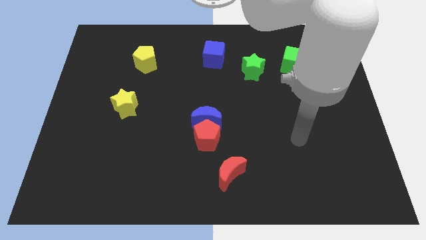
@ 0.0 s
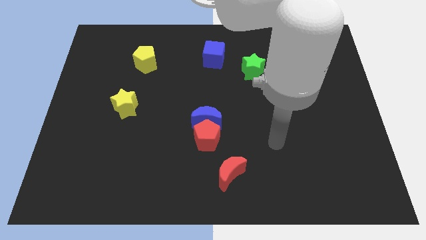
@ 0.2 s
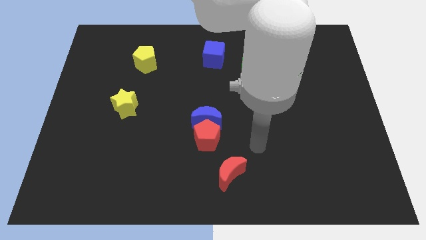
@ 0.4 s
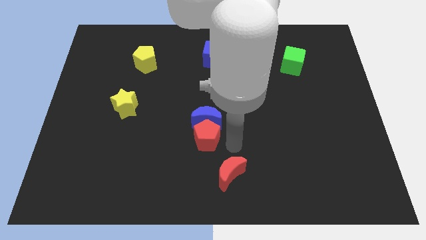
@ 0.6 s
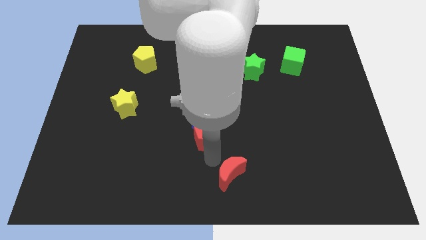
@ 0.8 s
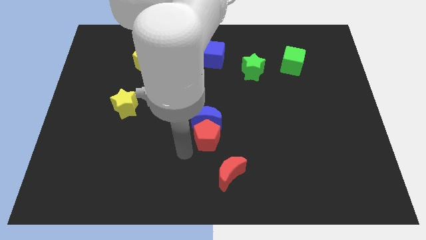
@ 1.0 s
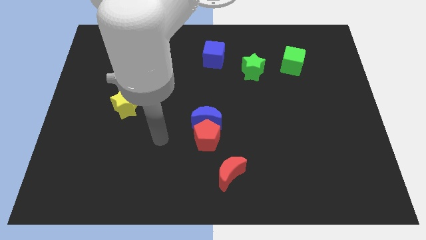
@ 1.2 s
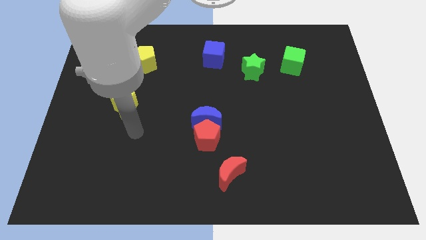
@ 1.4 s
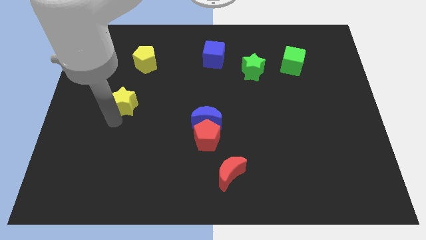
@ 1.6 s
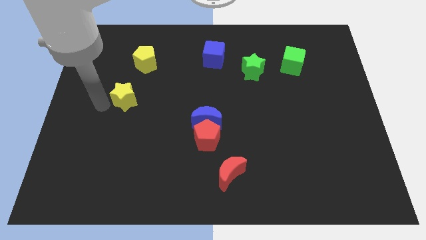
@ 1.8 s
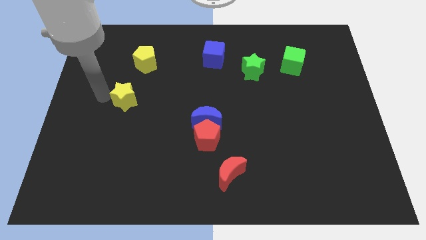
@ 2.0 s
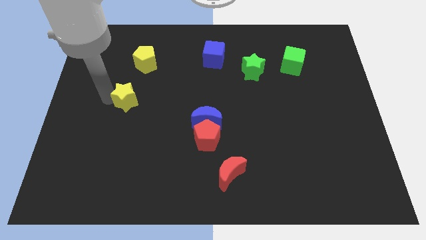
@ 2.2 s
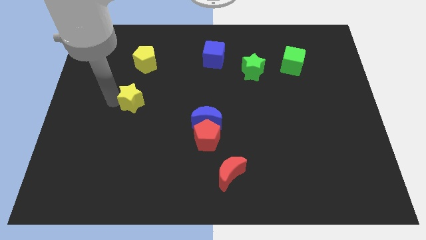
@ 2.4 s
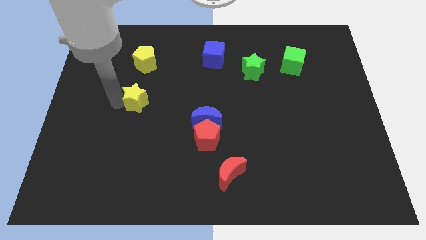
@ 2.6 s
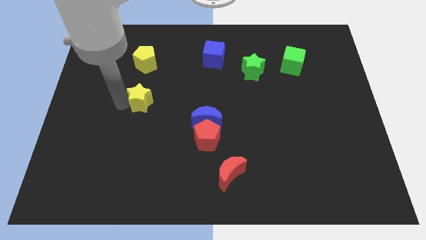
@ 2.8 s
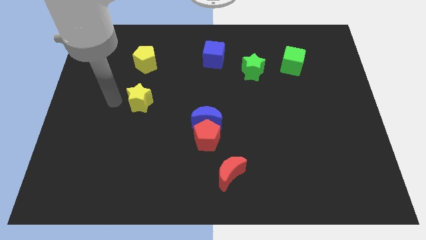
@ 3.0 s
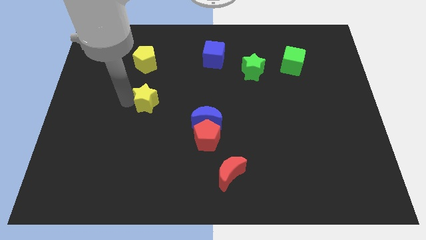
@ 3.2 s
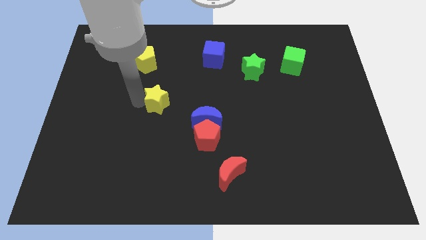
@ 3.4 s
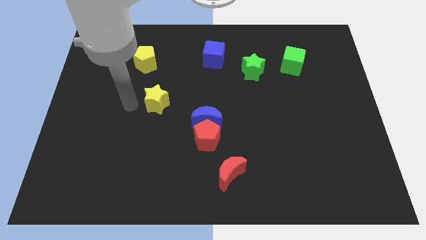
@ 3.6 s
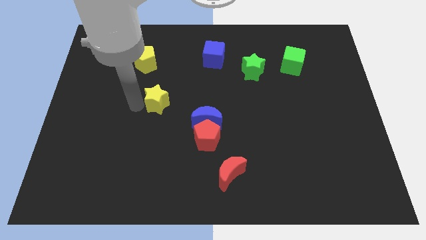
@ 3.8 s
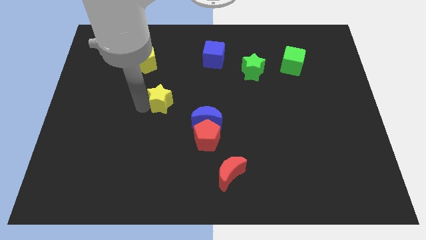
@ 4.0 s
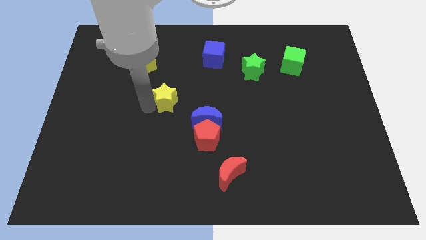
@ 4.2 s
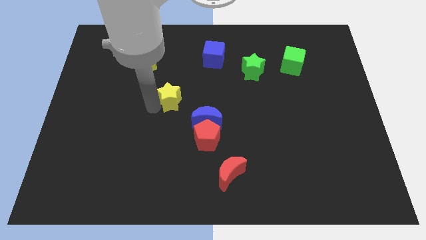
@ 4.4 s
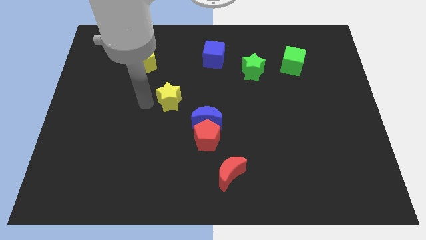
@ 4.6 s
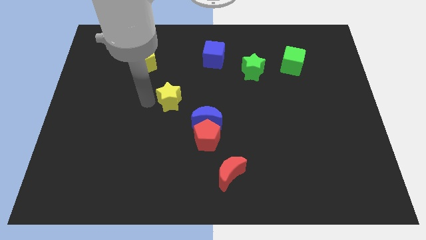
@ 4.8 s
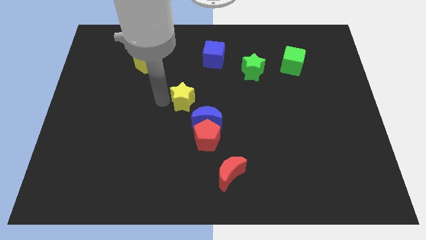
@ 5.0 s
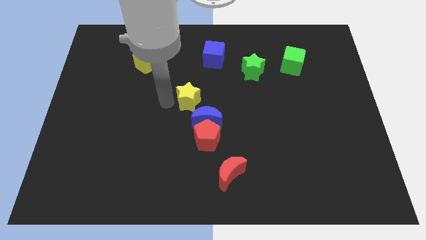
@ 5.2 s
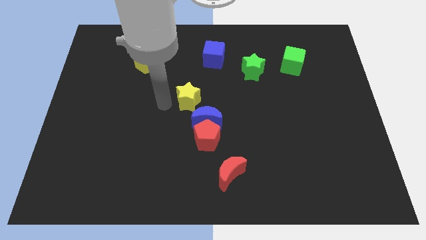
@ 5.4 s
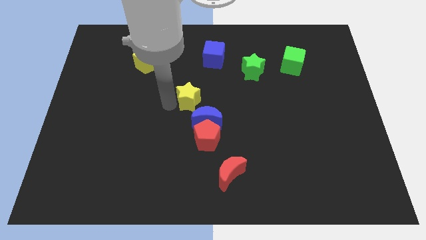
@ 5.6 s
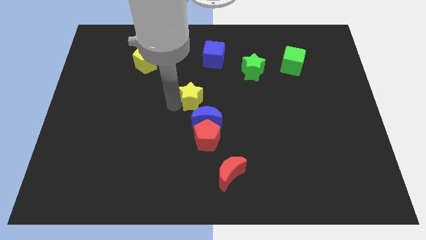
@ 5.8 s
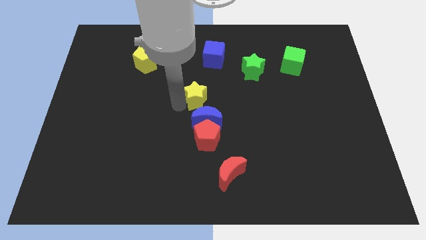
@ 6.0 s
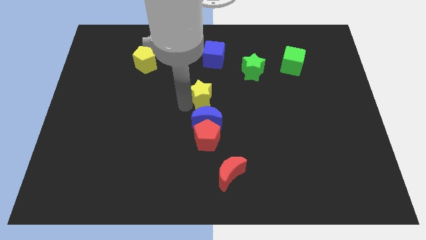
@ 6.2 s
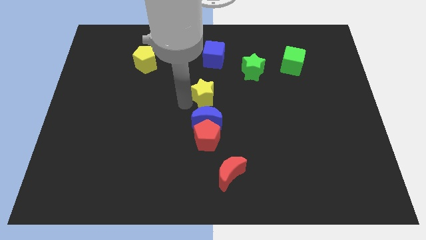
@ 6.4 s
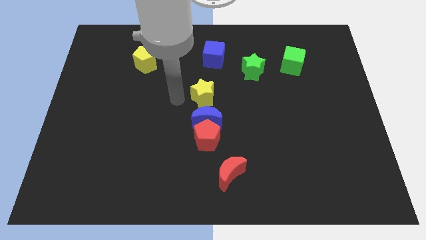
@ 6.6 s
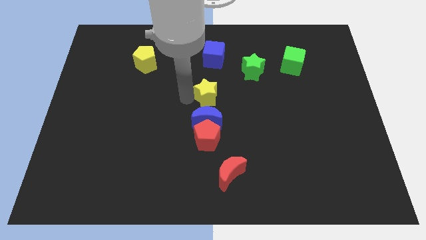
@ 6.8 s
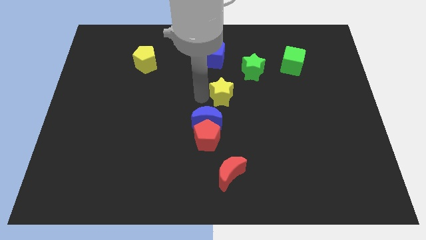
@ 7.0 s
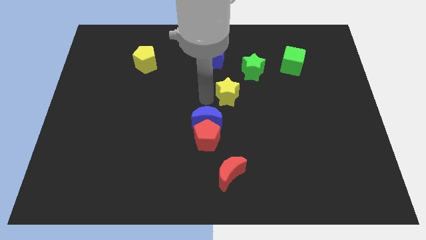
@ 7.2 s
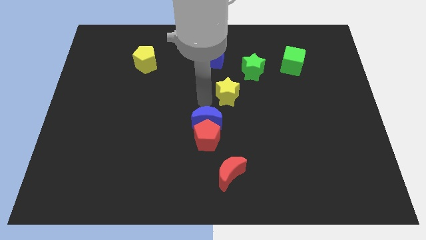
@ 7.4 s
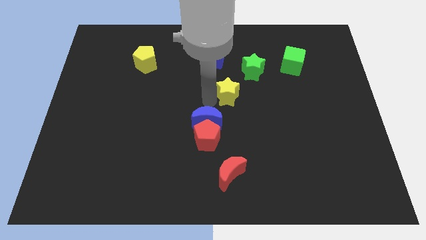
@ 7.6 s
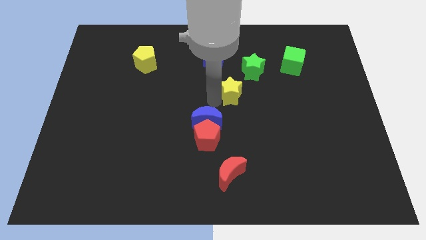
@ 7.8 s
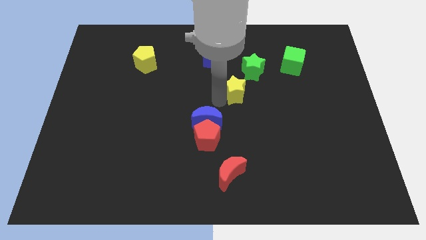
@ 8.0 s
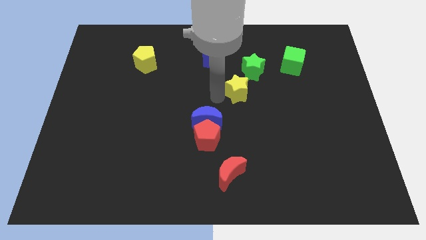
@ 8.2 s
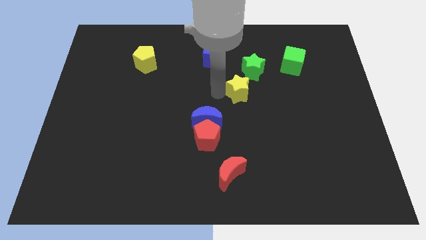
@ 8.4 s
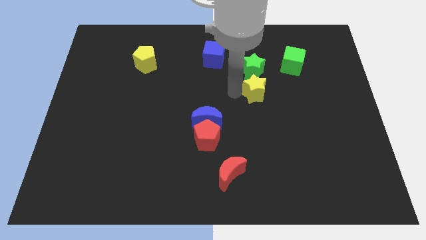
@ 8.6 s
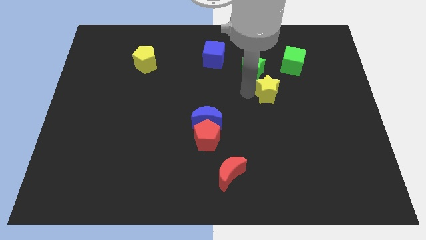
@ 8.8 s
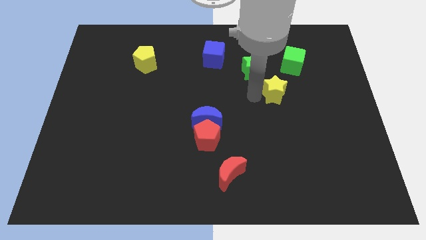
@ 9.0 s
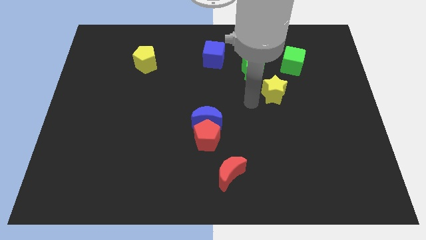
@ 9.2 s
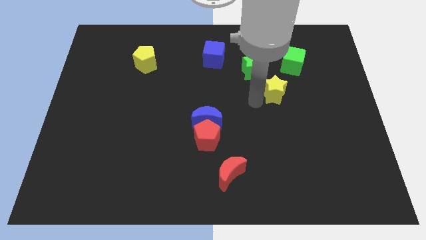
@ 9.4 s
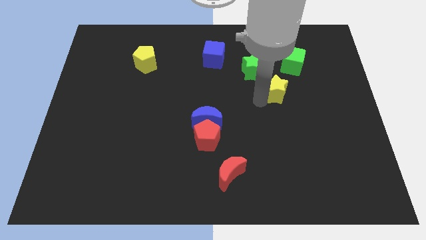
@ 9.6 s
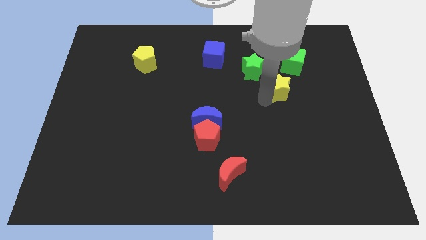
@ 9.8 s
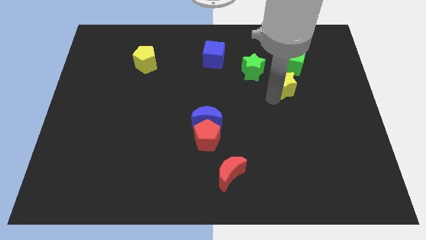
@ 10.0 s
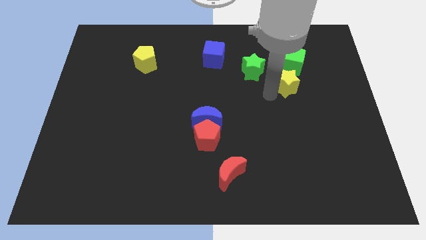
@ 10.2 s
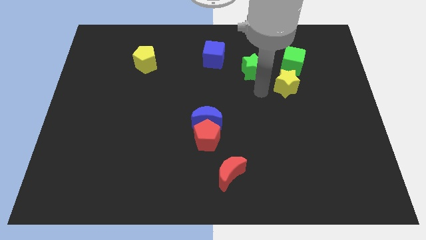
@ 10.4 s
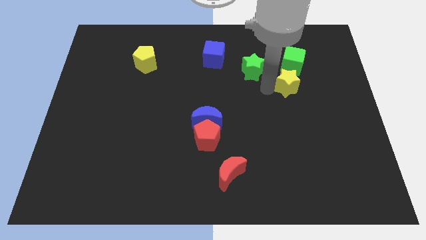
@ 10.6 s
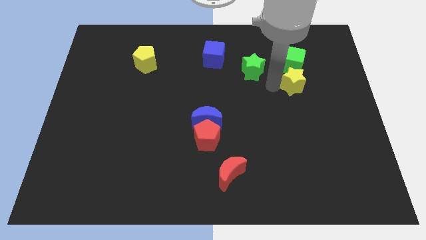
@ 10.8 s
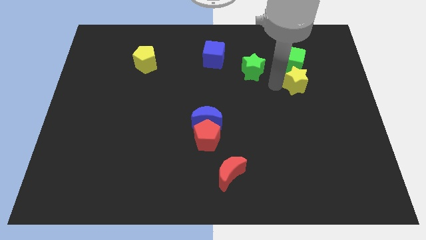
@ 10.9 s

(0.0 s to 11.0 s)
push the yellow star to the bottom right side of the green cube

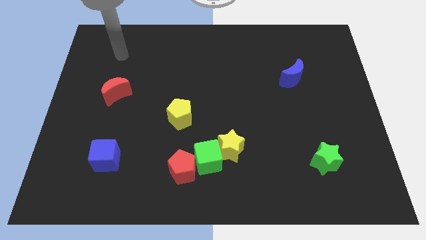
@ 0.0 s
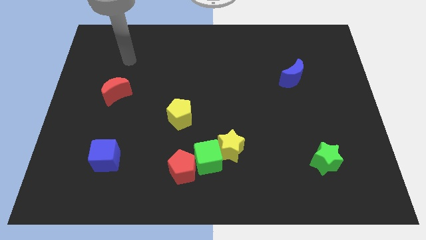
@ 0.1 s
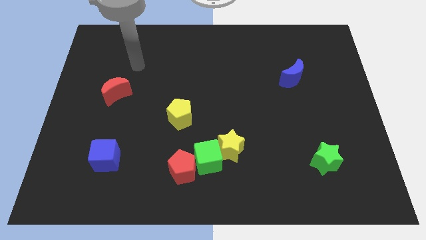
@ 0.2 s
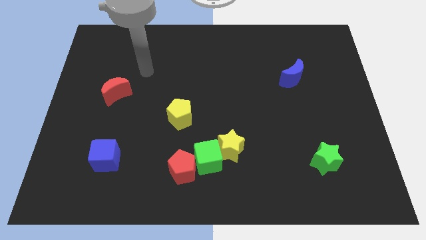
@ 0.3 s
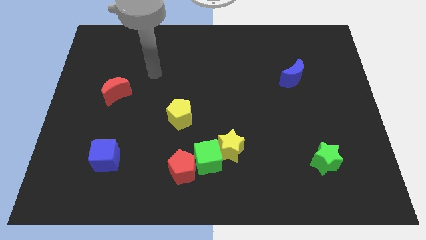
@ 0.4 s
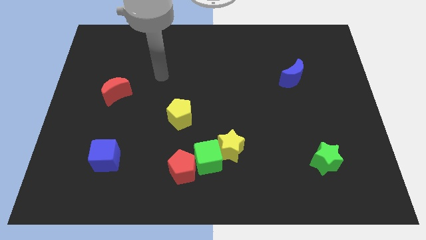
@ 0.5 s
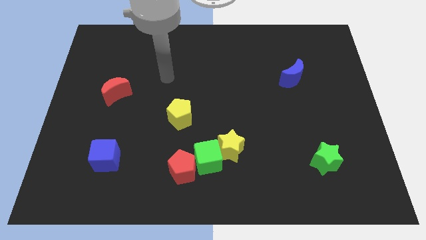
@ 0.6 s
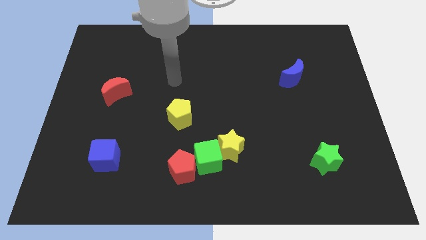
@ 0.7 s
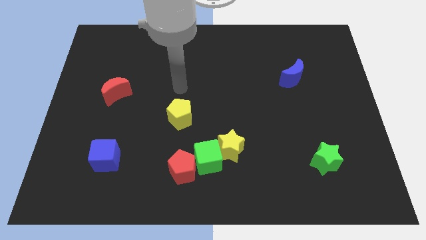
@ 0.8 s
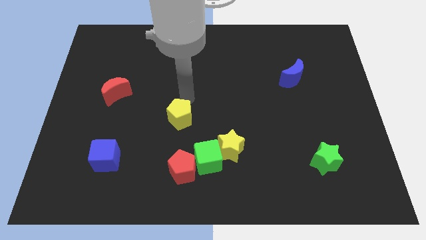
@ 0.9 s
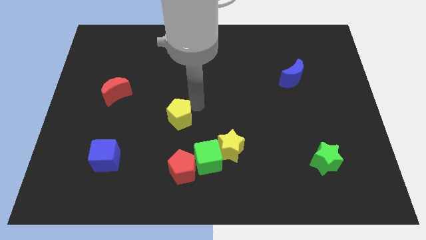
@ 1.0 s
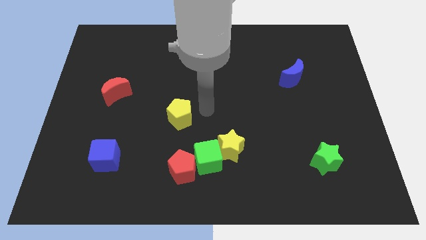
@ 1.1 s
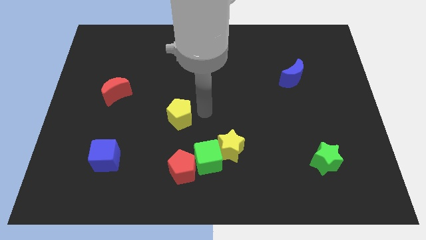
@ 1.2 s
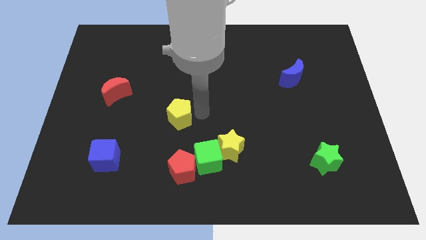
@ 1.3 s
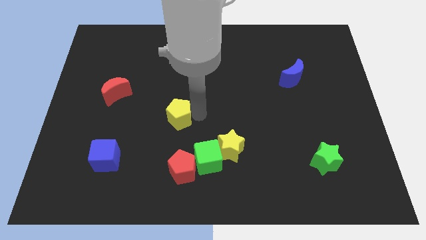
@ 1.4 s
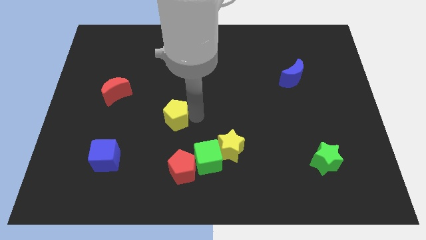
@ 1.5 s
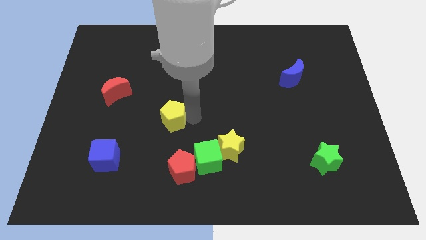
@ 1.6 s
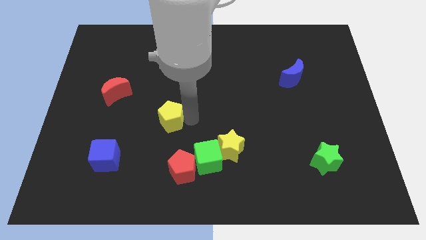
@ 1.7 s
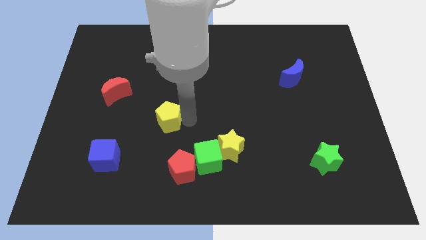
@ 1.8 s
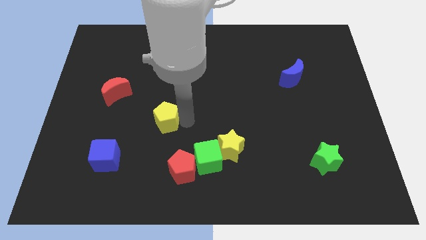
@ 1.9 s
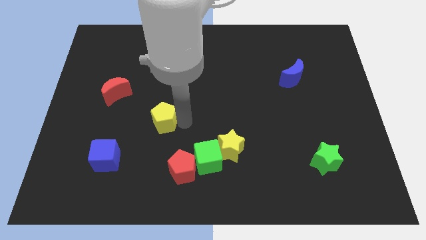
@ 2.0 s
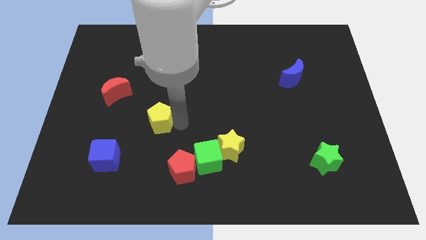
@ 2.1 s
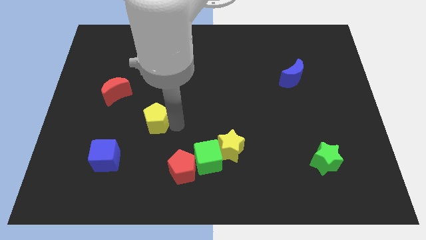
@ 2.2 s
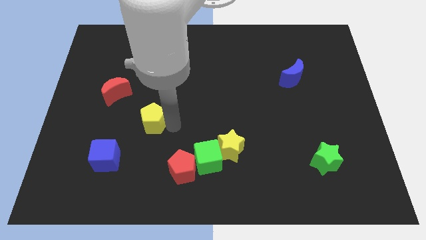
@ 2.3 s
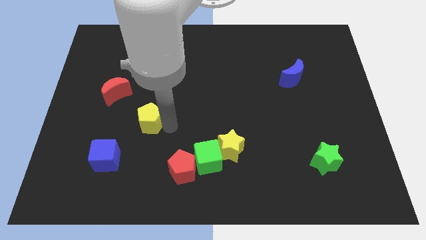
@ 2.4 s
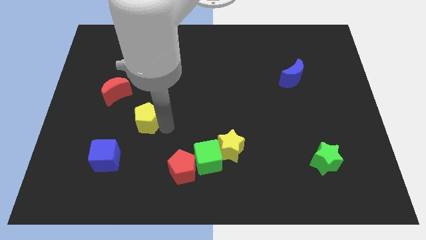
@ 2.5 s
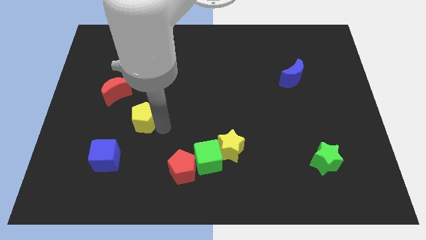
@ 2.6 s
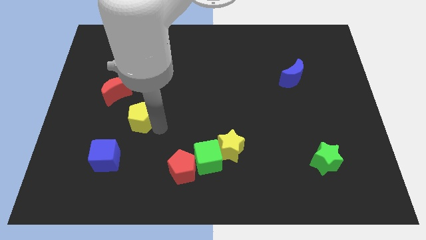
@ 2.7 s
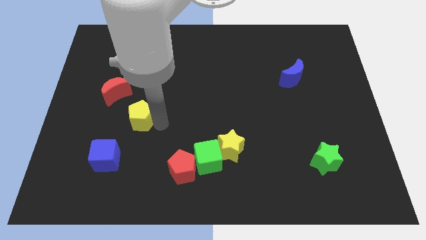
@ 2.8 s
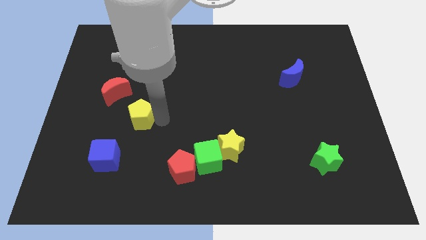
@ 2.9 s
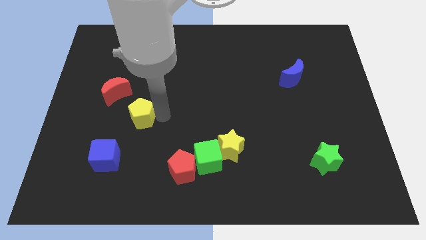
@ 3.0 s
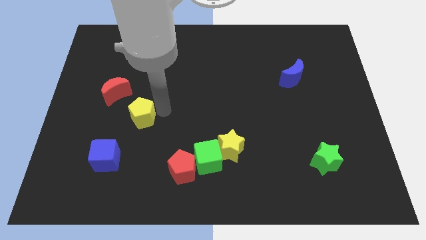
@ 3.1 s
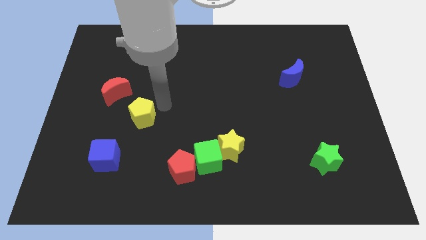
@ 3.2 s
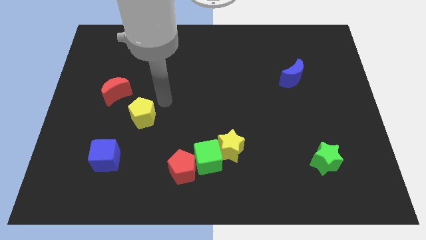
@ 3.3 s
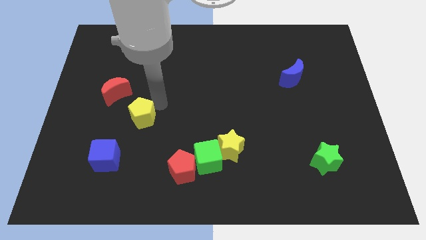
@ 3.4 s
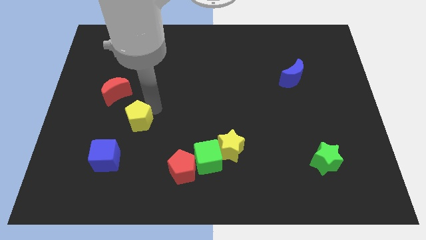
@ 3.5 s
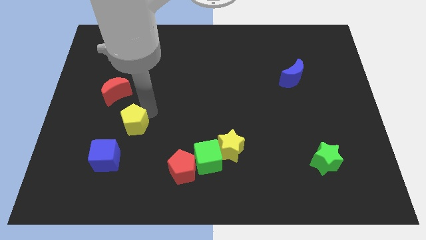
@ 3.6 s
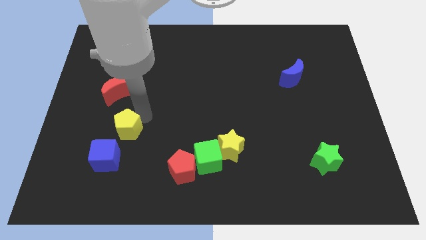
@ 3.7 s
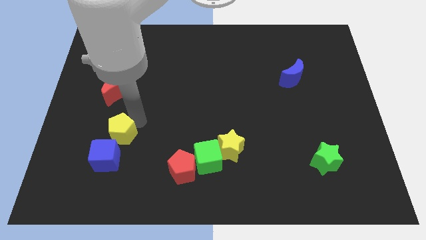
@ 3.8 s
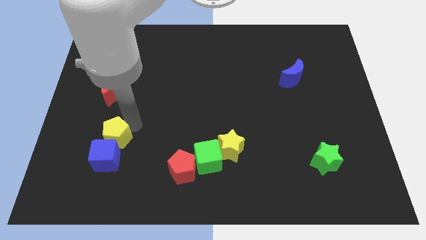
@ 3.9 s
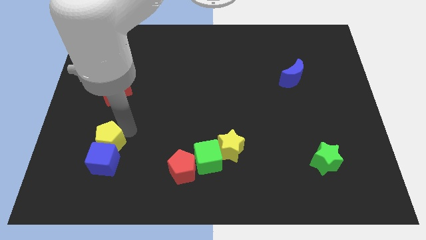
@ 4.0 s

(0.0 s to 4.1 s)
put the yellow pentagon diagonally up and to the left of the blue cube
